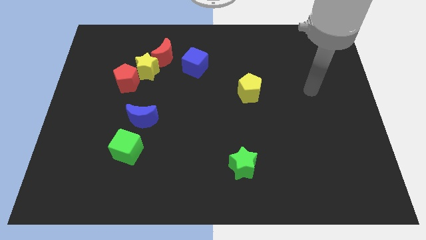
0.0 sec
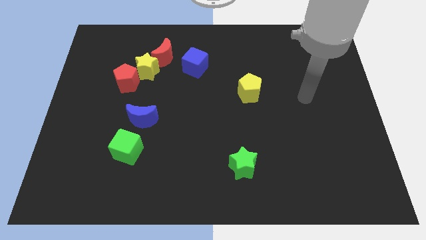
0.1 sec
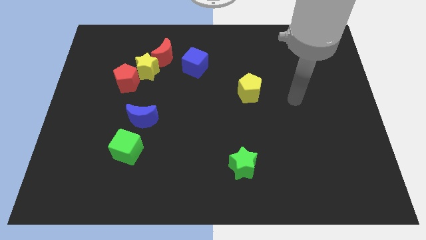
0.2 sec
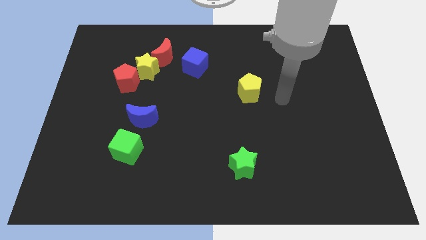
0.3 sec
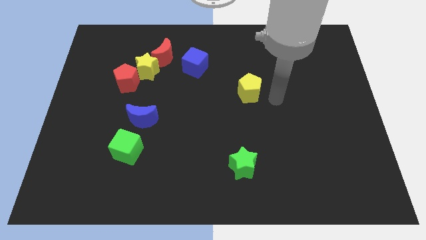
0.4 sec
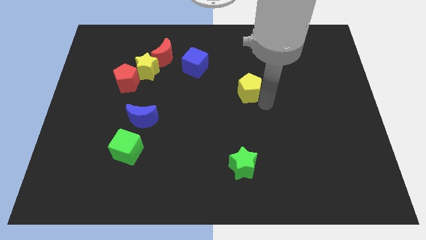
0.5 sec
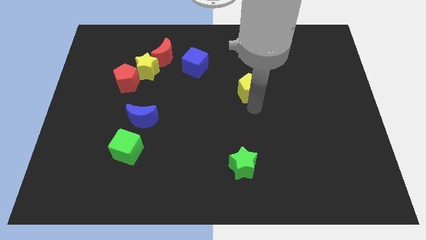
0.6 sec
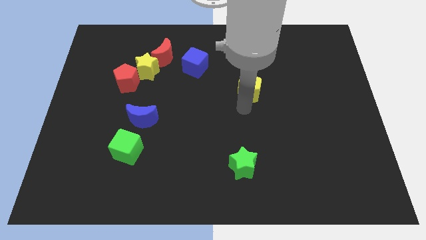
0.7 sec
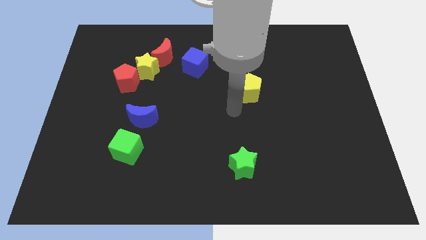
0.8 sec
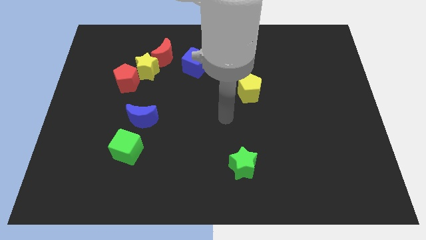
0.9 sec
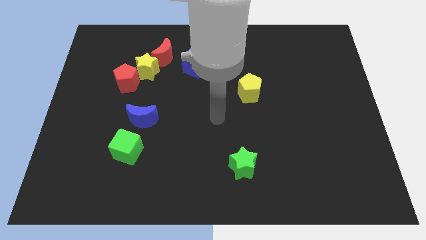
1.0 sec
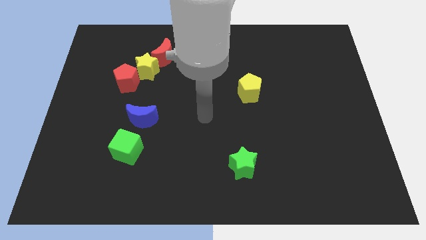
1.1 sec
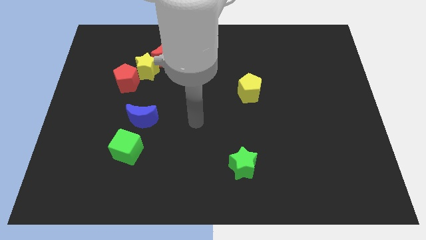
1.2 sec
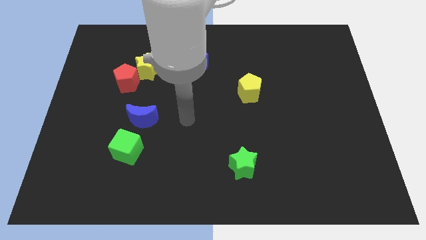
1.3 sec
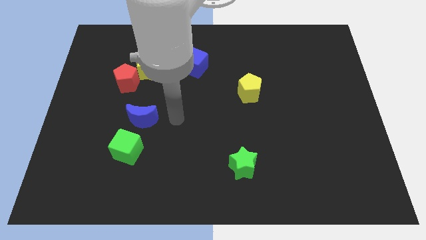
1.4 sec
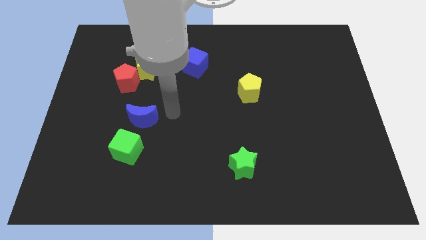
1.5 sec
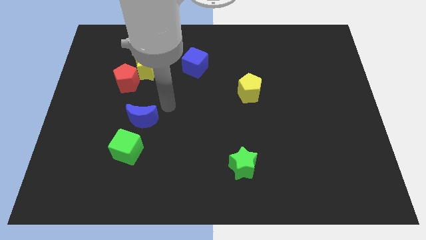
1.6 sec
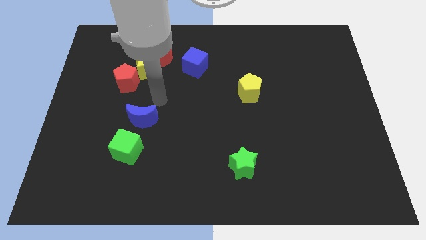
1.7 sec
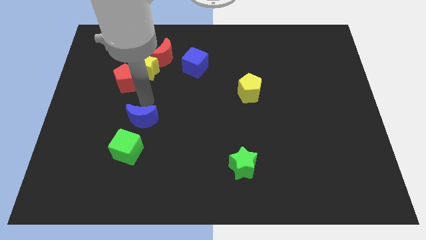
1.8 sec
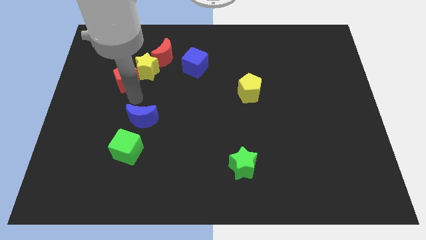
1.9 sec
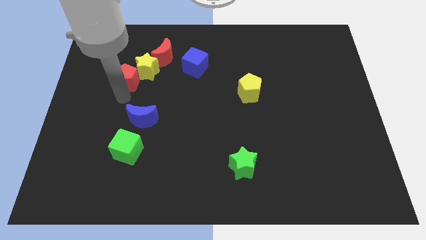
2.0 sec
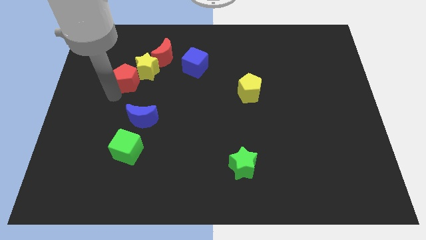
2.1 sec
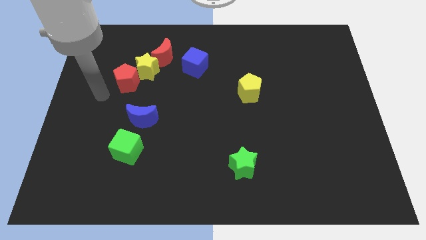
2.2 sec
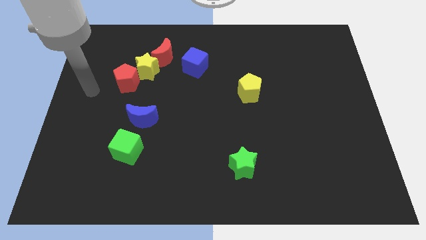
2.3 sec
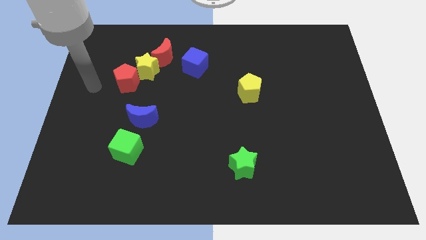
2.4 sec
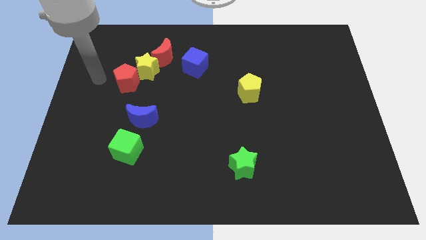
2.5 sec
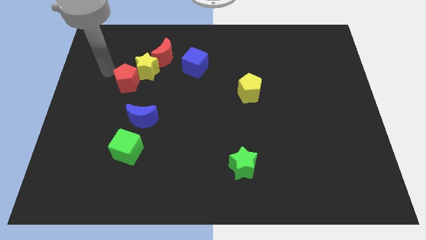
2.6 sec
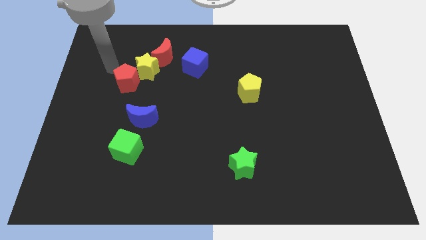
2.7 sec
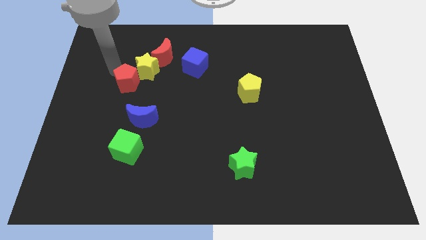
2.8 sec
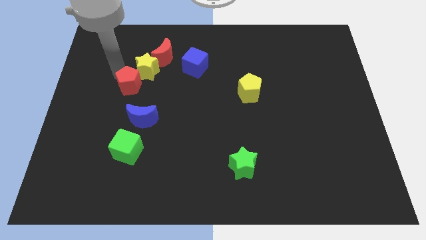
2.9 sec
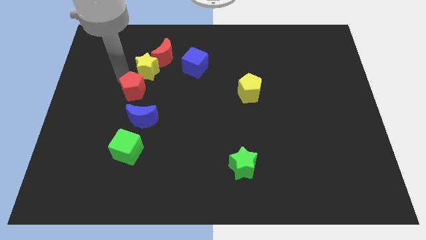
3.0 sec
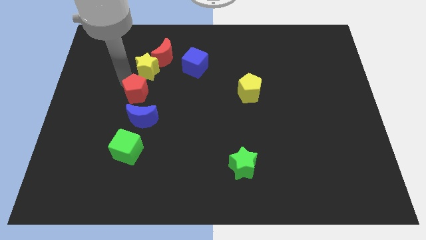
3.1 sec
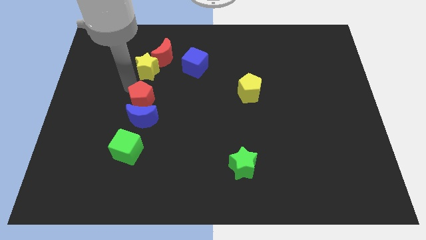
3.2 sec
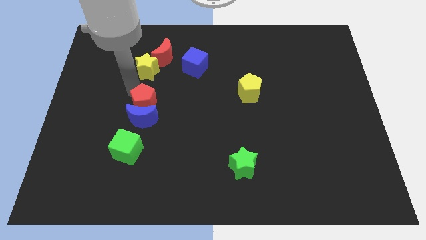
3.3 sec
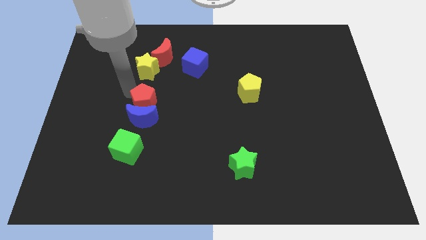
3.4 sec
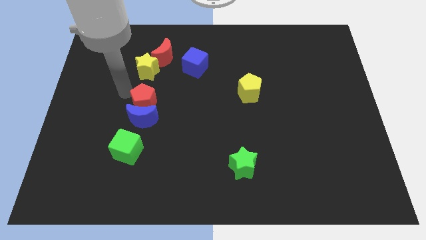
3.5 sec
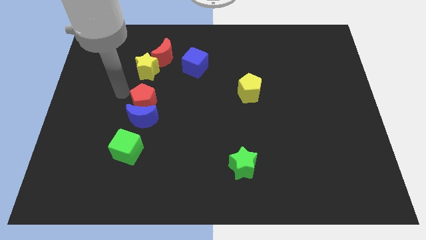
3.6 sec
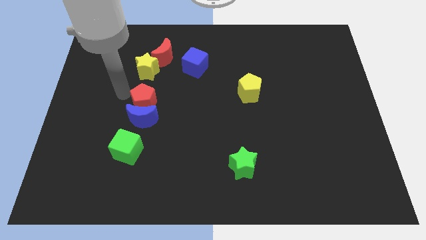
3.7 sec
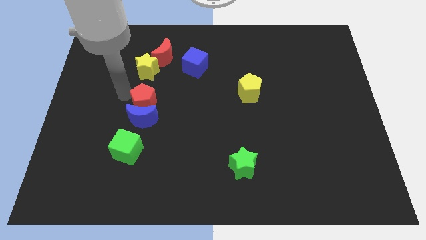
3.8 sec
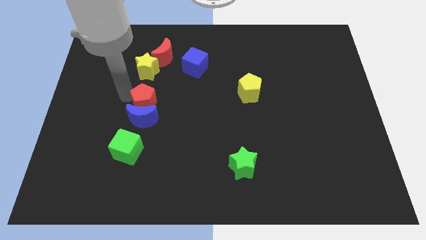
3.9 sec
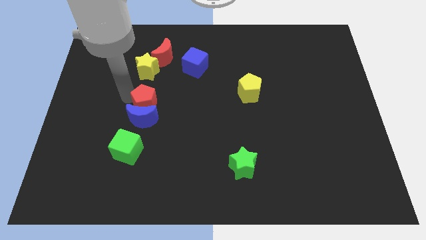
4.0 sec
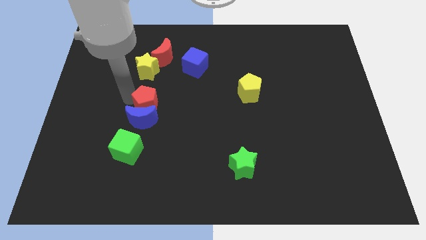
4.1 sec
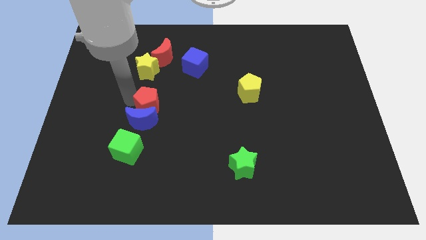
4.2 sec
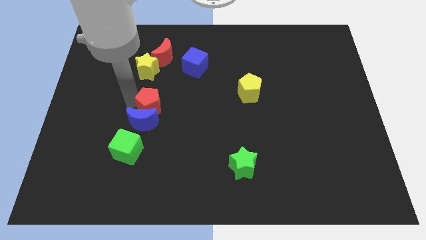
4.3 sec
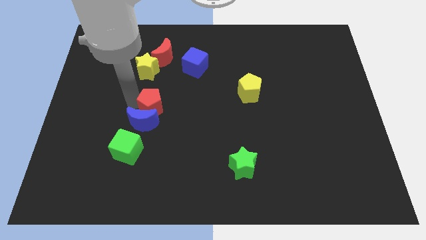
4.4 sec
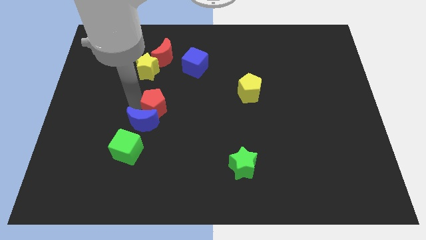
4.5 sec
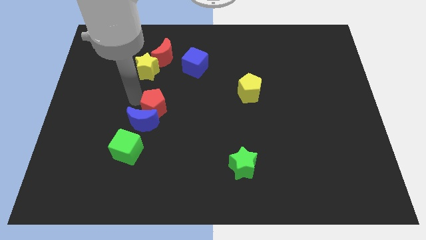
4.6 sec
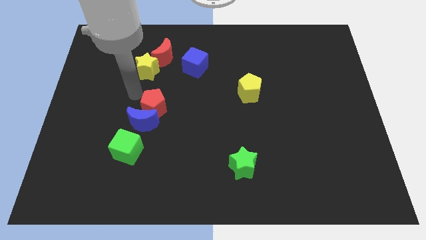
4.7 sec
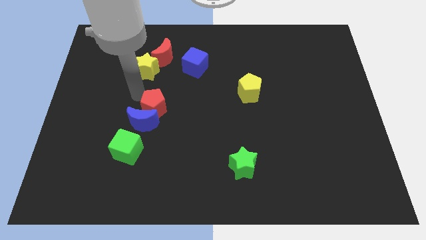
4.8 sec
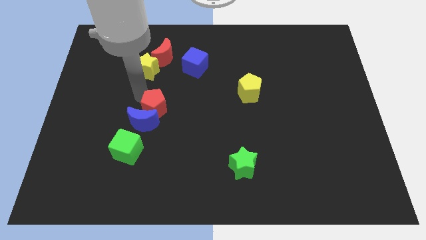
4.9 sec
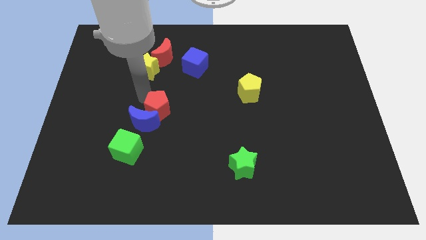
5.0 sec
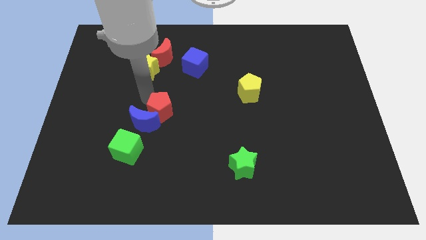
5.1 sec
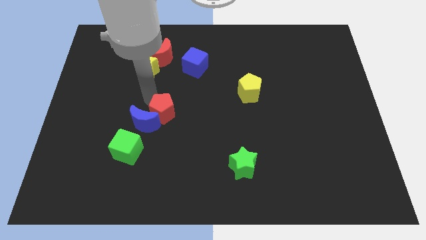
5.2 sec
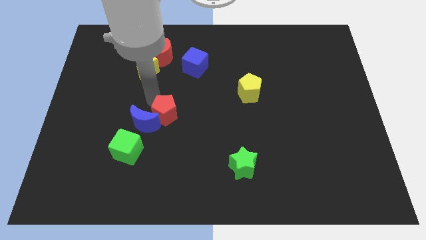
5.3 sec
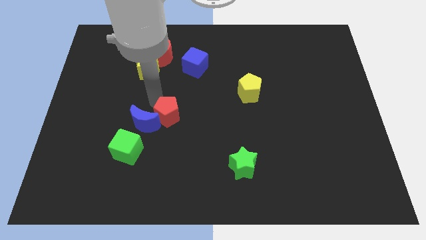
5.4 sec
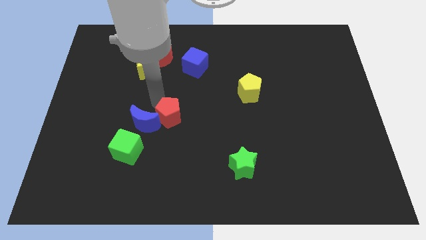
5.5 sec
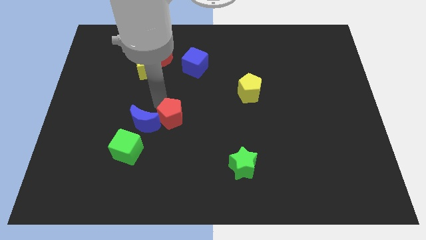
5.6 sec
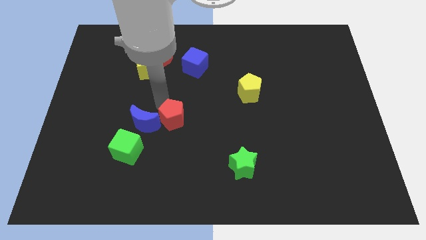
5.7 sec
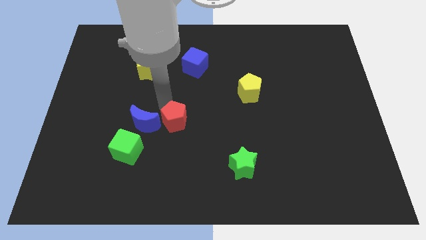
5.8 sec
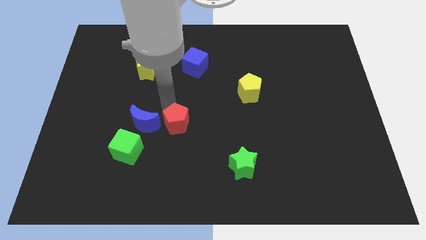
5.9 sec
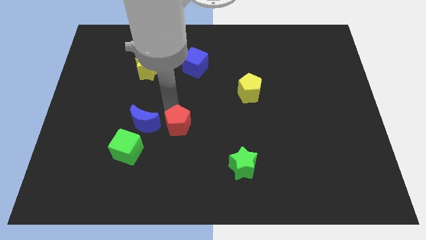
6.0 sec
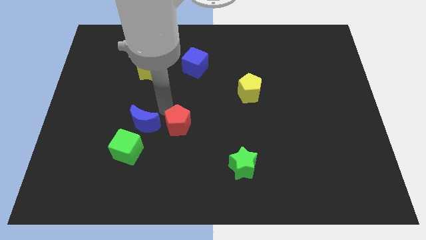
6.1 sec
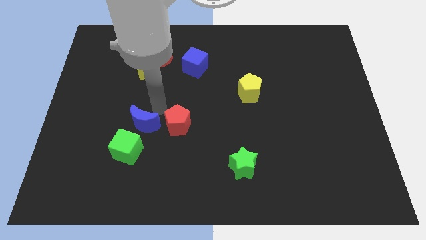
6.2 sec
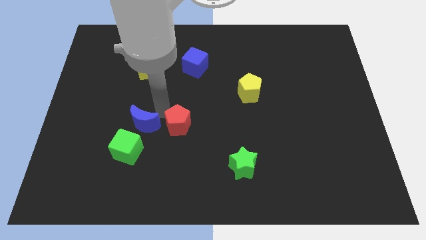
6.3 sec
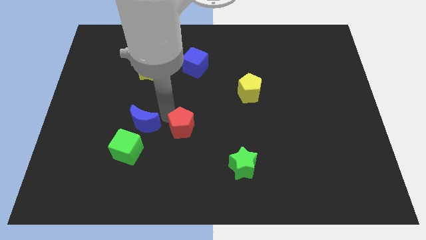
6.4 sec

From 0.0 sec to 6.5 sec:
move the red pentagon down and right

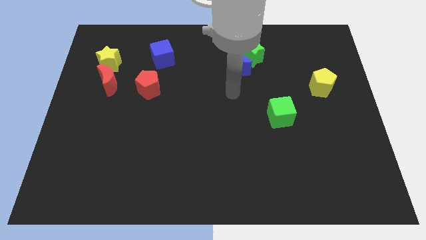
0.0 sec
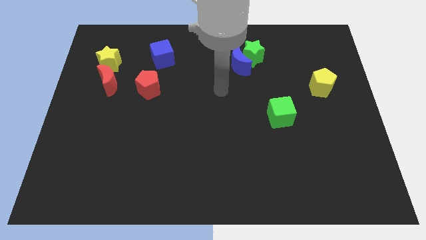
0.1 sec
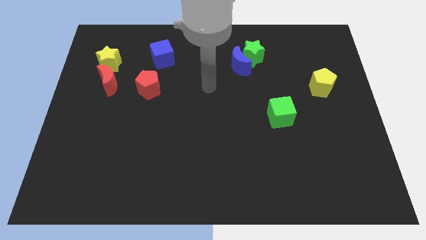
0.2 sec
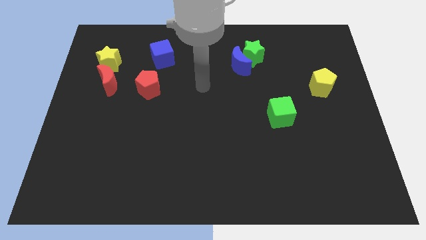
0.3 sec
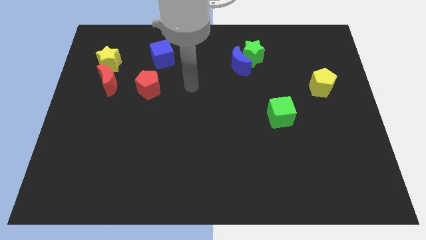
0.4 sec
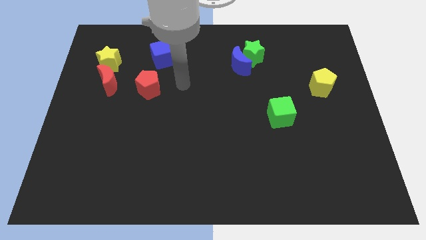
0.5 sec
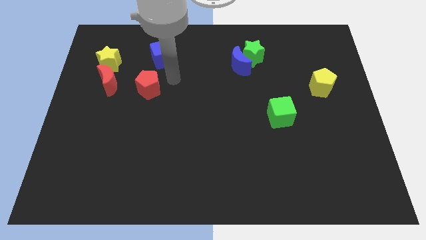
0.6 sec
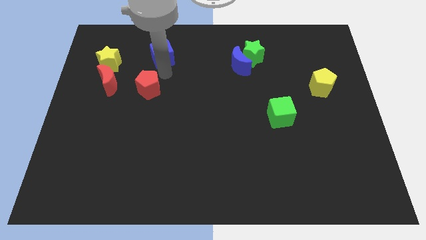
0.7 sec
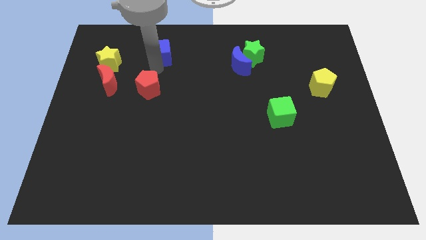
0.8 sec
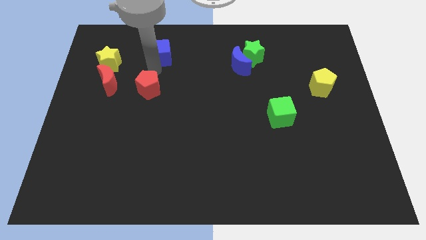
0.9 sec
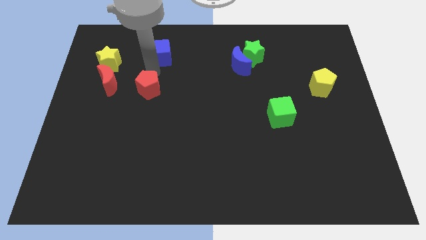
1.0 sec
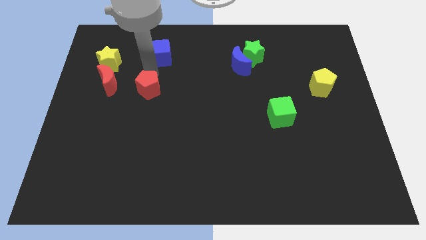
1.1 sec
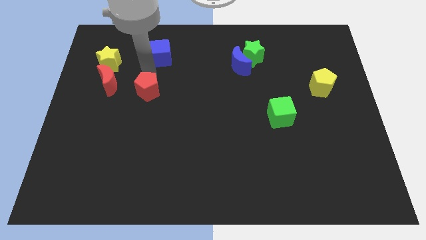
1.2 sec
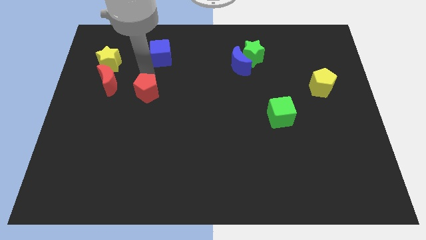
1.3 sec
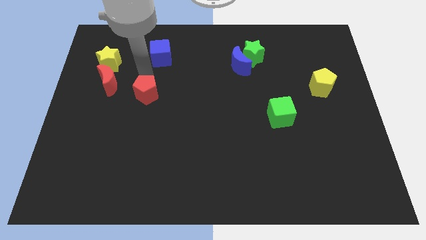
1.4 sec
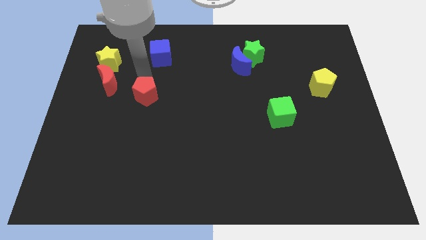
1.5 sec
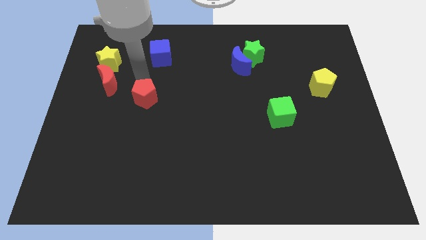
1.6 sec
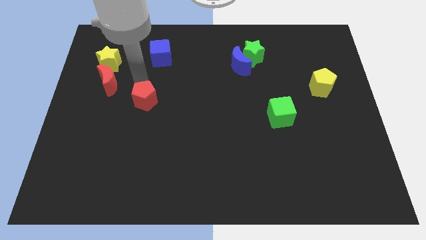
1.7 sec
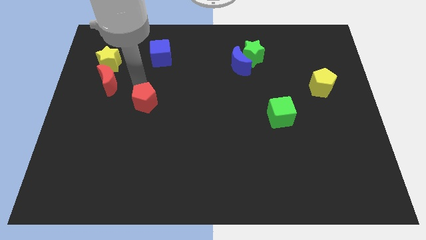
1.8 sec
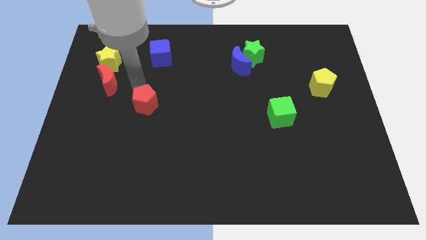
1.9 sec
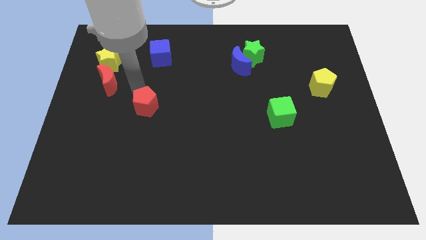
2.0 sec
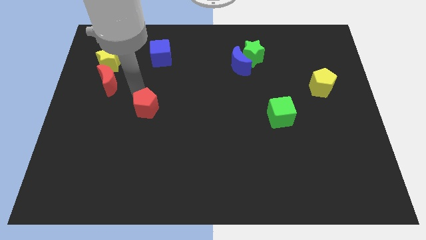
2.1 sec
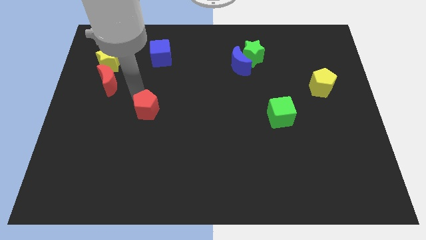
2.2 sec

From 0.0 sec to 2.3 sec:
move the red pentagon downwards somewhat
